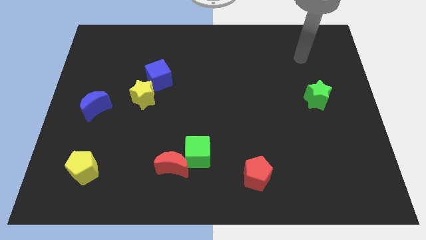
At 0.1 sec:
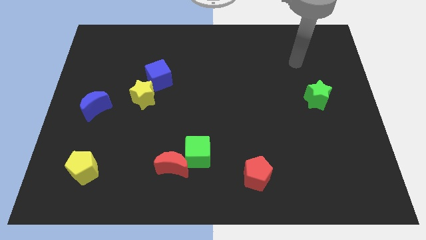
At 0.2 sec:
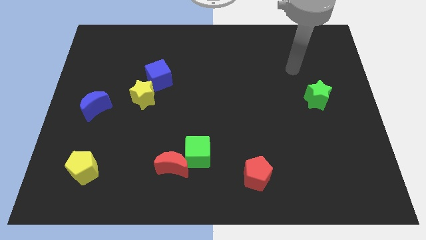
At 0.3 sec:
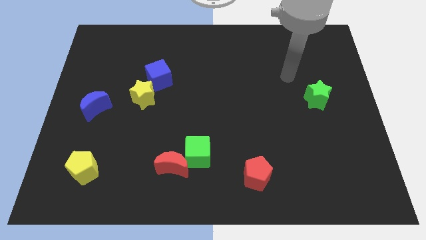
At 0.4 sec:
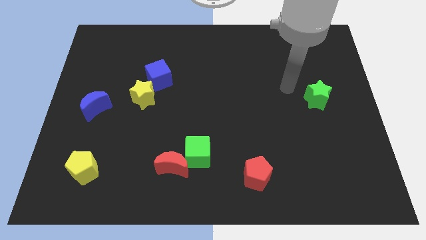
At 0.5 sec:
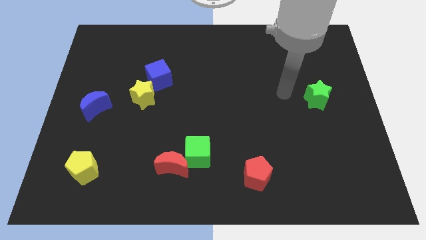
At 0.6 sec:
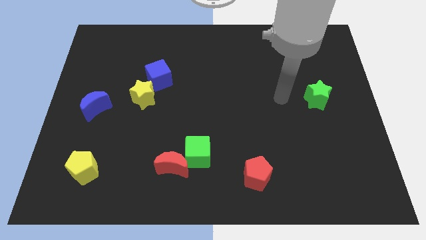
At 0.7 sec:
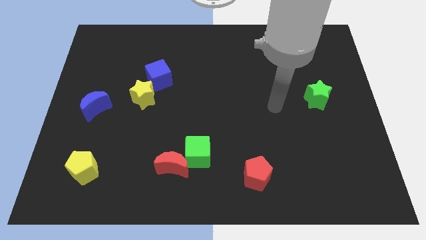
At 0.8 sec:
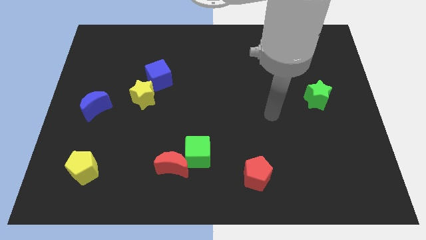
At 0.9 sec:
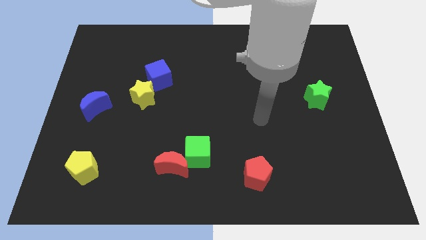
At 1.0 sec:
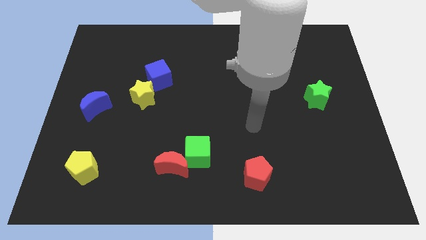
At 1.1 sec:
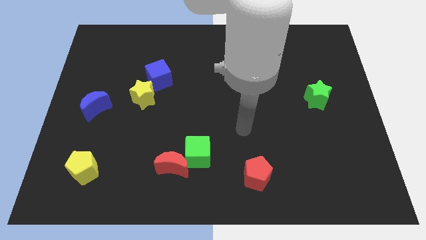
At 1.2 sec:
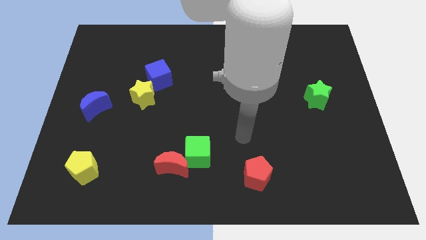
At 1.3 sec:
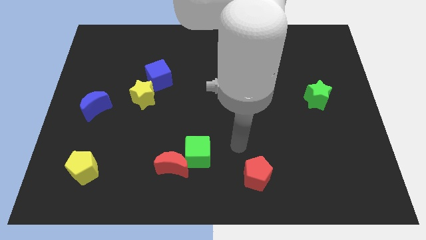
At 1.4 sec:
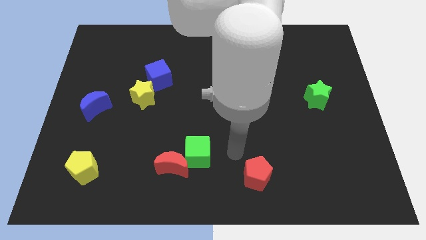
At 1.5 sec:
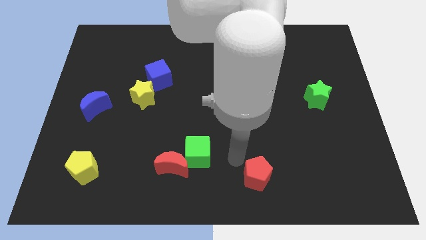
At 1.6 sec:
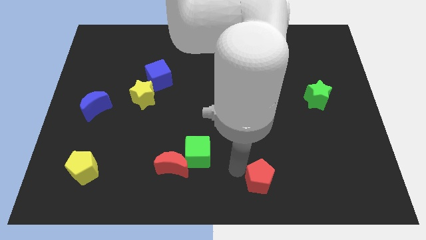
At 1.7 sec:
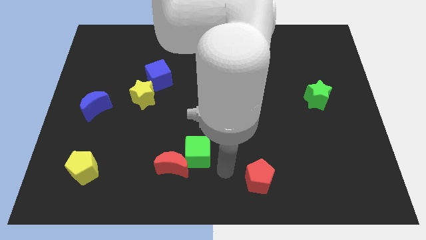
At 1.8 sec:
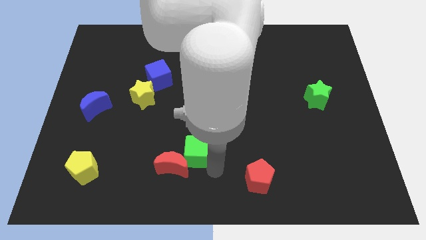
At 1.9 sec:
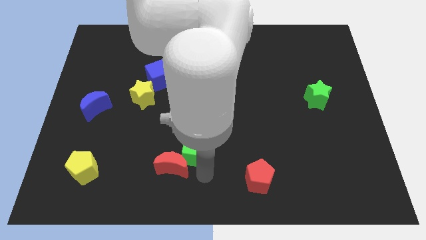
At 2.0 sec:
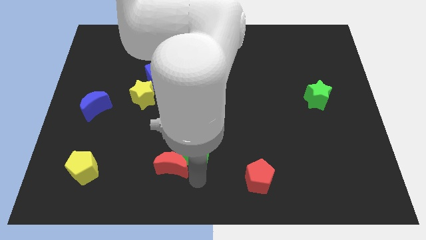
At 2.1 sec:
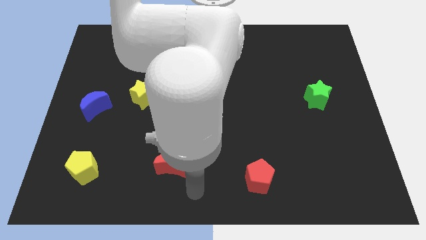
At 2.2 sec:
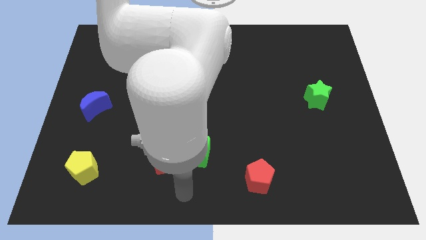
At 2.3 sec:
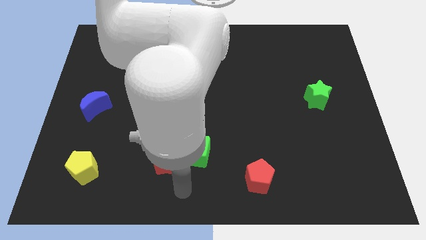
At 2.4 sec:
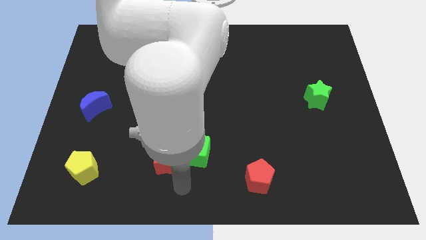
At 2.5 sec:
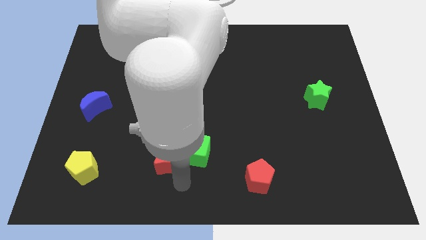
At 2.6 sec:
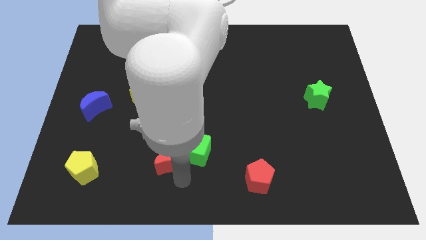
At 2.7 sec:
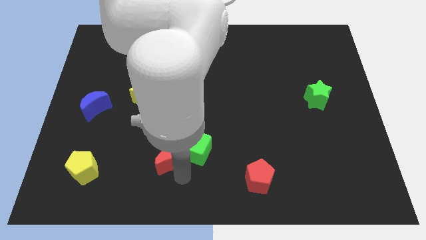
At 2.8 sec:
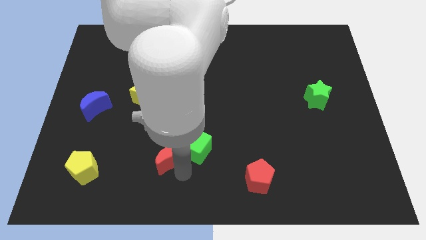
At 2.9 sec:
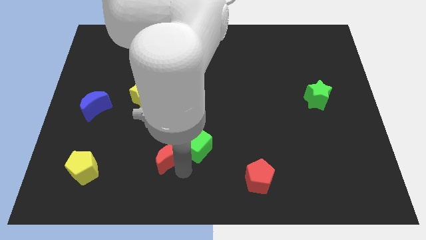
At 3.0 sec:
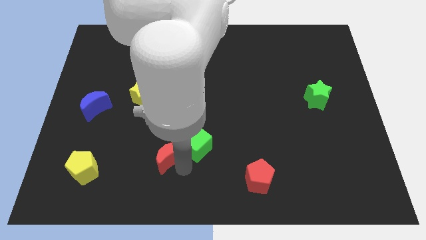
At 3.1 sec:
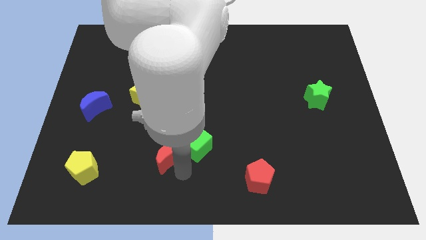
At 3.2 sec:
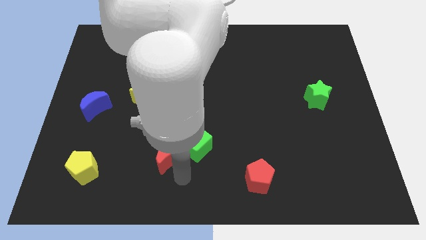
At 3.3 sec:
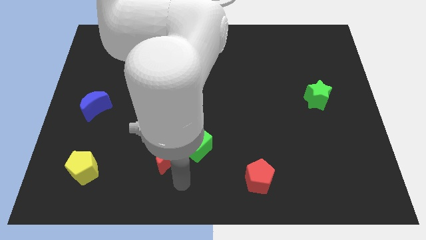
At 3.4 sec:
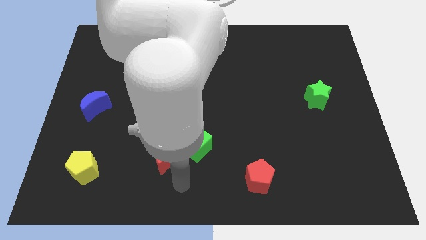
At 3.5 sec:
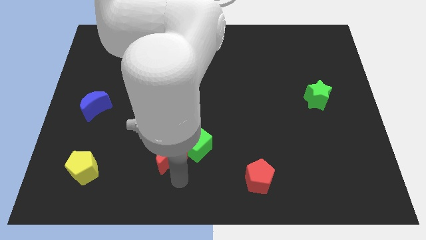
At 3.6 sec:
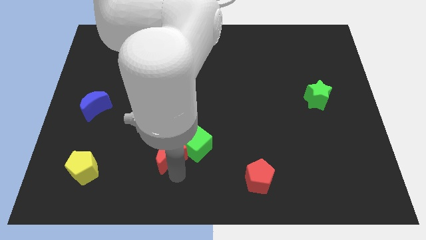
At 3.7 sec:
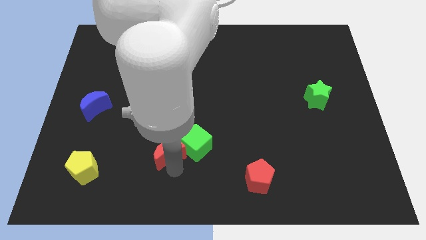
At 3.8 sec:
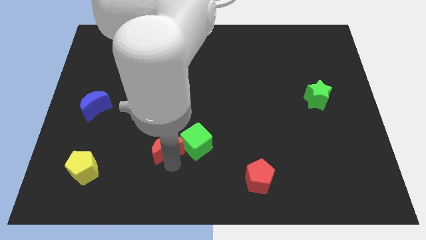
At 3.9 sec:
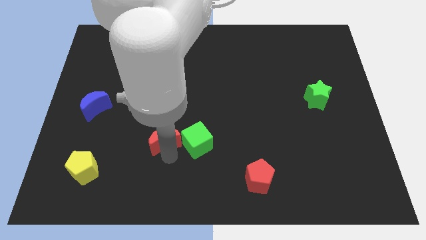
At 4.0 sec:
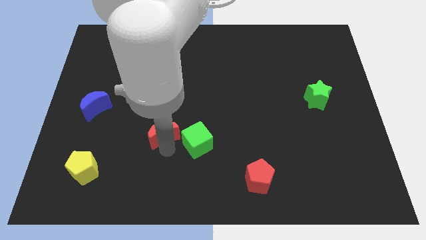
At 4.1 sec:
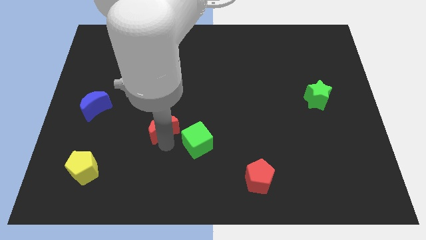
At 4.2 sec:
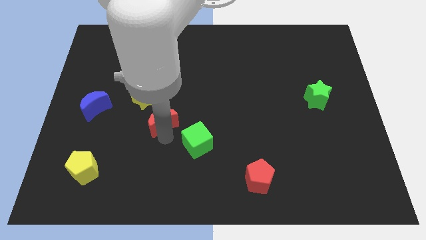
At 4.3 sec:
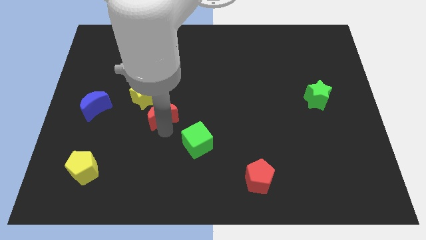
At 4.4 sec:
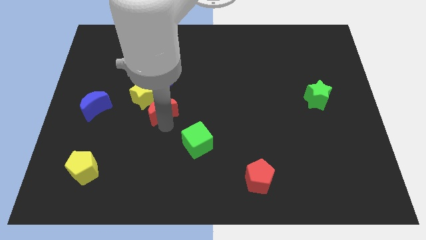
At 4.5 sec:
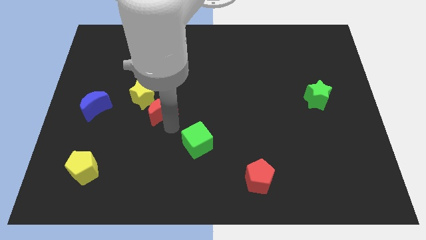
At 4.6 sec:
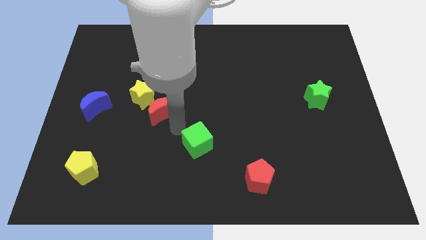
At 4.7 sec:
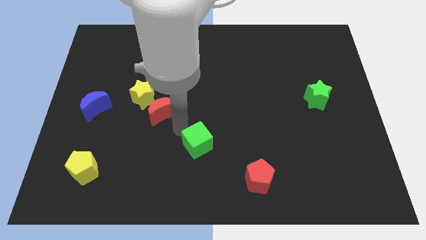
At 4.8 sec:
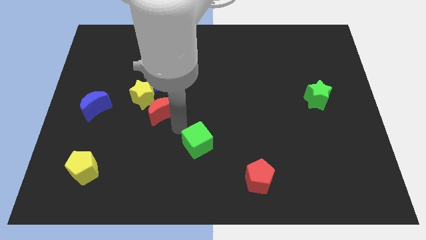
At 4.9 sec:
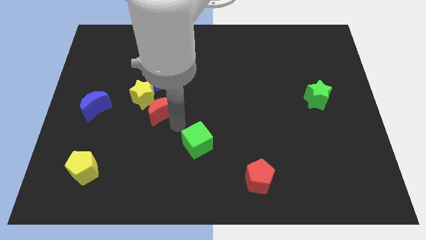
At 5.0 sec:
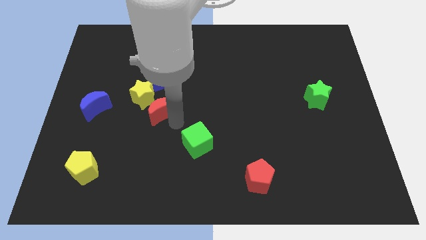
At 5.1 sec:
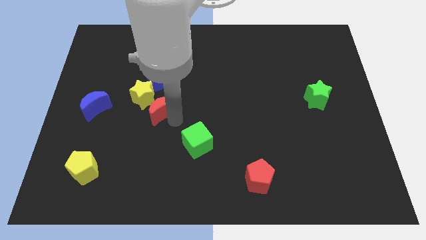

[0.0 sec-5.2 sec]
push the red moon towards the yellow star
